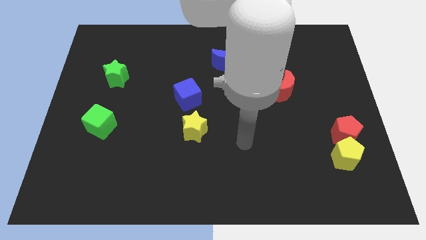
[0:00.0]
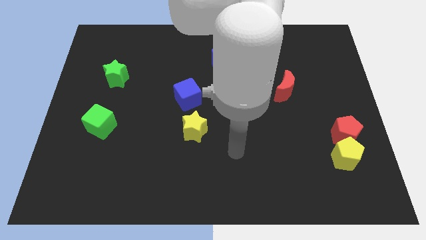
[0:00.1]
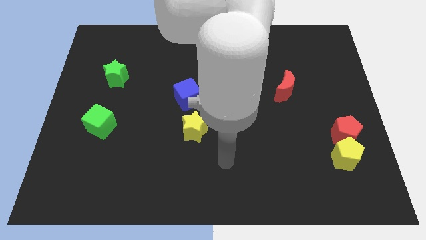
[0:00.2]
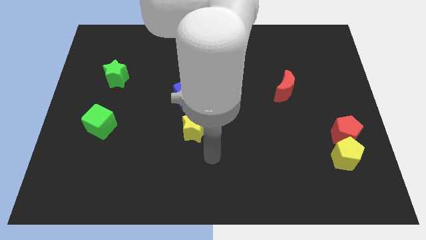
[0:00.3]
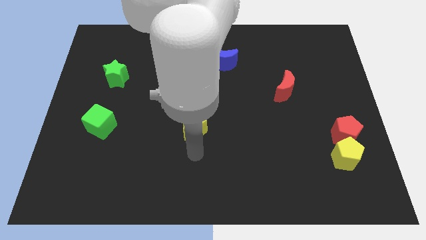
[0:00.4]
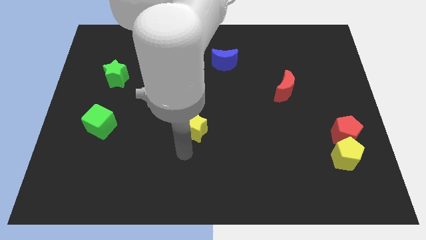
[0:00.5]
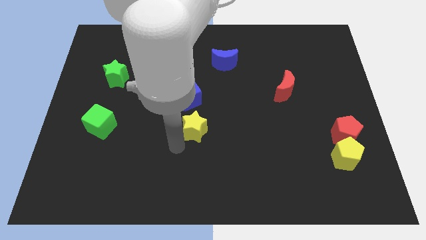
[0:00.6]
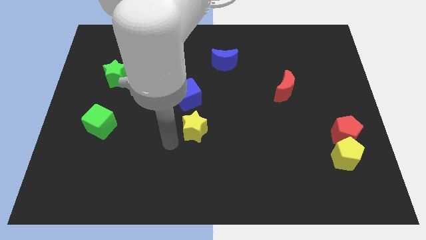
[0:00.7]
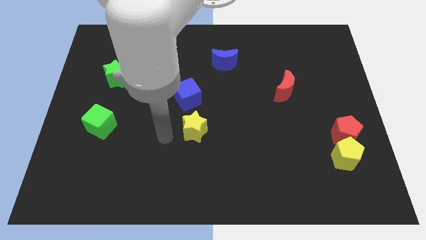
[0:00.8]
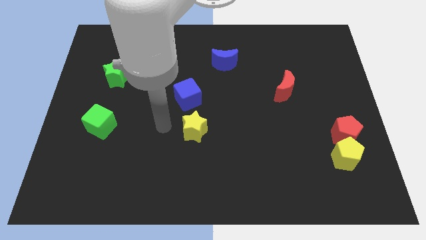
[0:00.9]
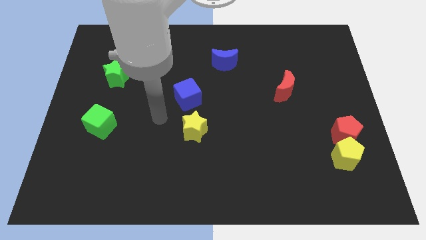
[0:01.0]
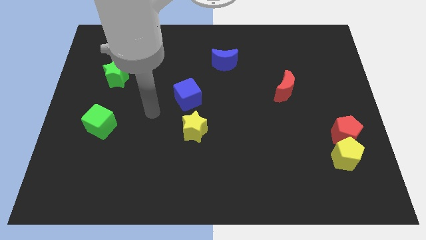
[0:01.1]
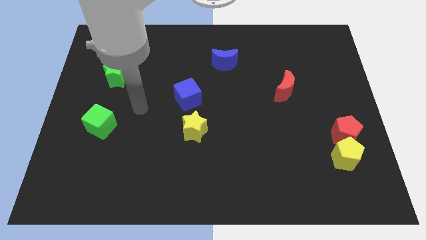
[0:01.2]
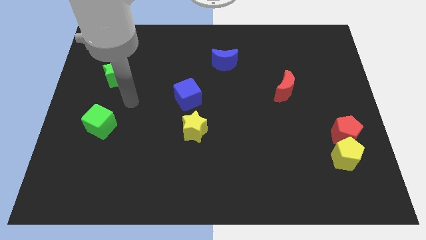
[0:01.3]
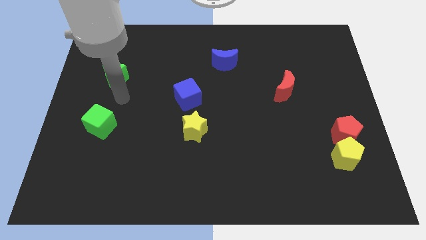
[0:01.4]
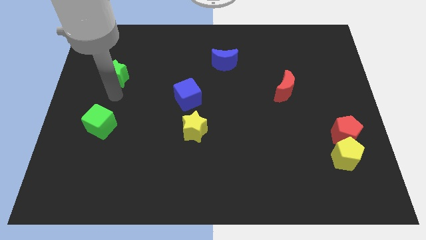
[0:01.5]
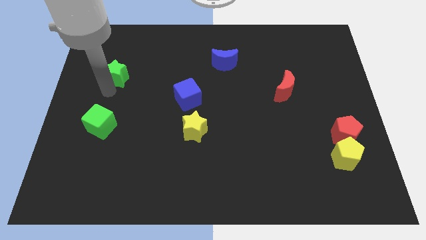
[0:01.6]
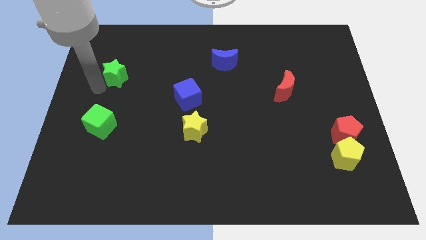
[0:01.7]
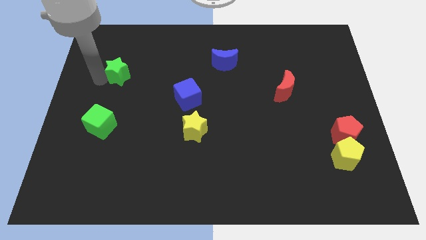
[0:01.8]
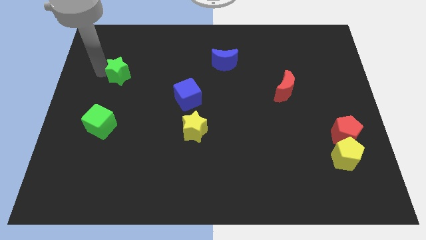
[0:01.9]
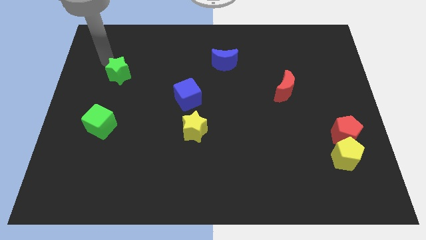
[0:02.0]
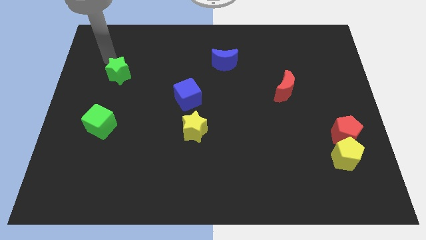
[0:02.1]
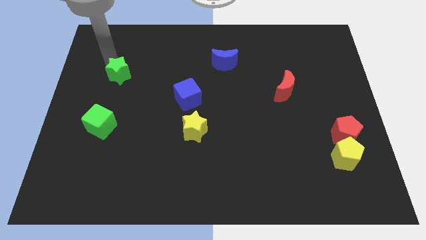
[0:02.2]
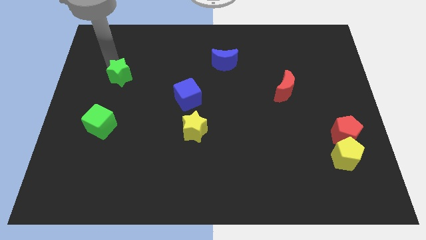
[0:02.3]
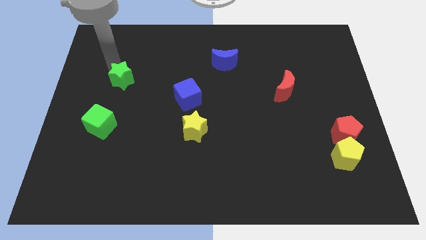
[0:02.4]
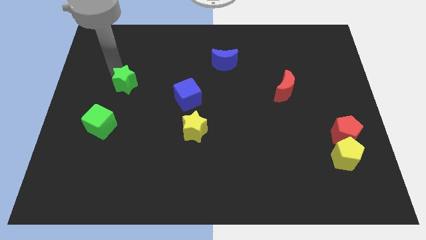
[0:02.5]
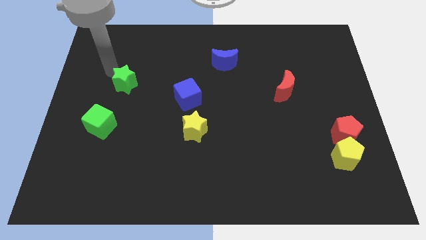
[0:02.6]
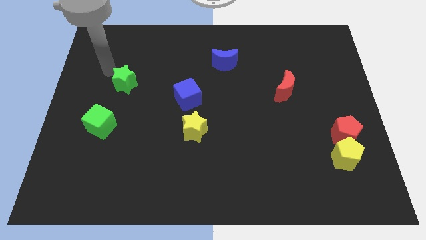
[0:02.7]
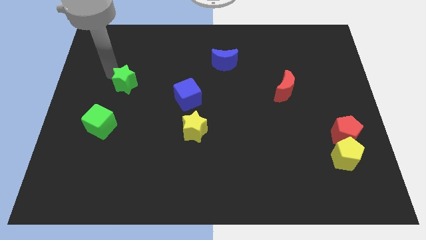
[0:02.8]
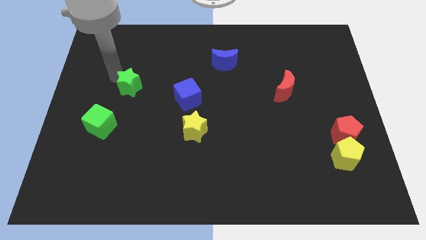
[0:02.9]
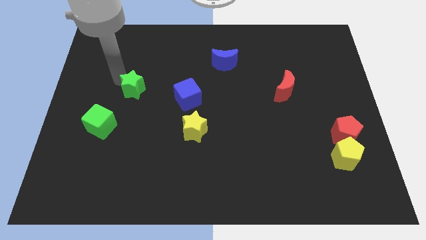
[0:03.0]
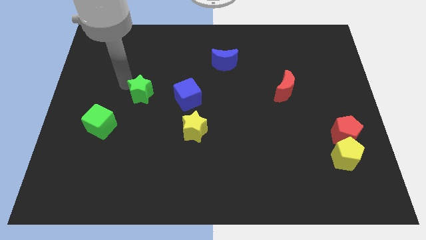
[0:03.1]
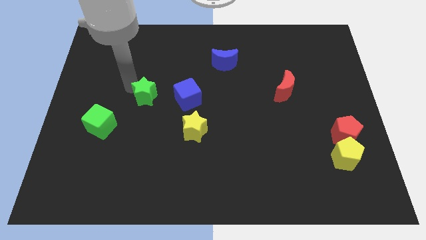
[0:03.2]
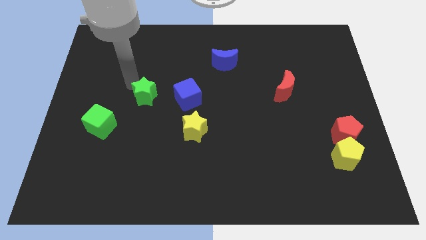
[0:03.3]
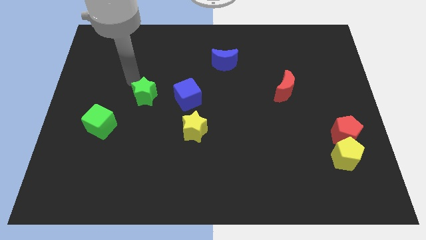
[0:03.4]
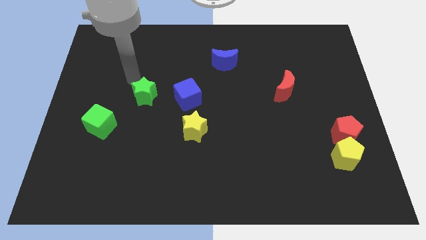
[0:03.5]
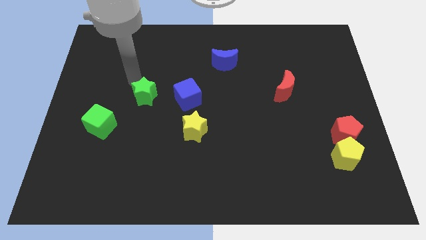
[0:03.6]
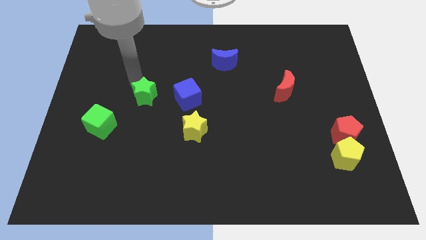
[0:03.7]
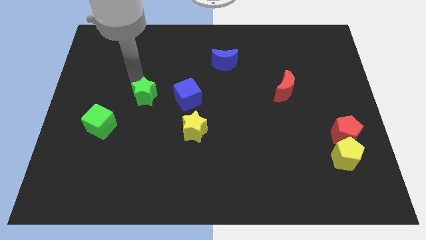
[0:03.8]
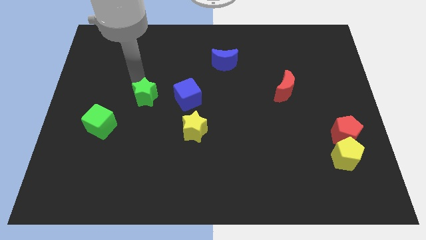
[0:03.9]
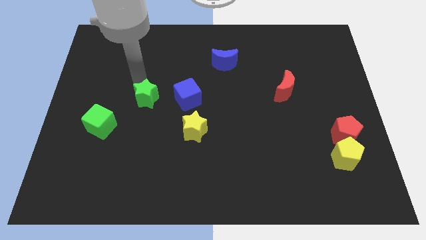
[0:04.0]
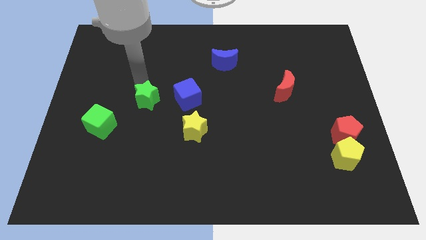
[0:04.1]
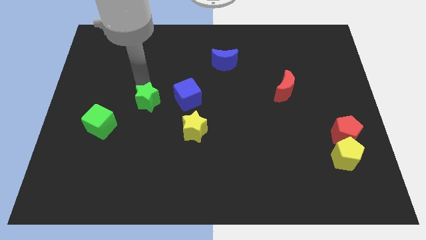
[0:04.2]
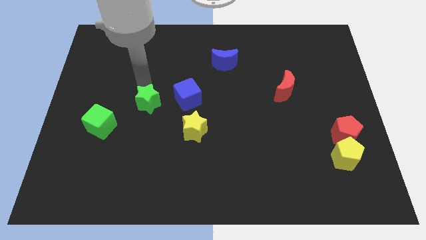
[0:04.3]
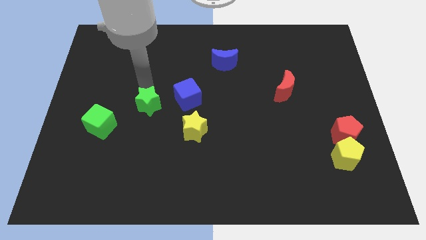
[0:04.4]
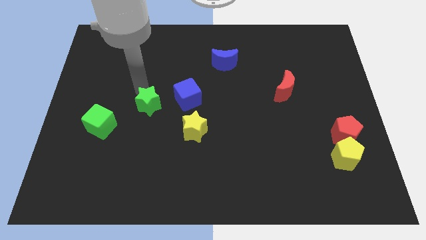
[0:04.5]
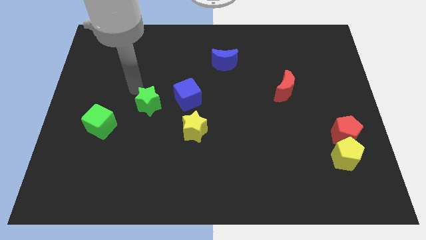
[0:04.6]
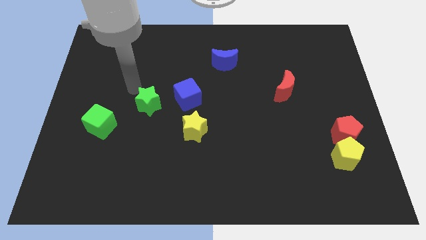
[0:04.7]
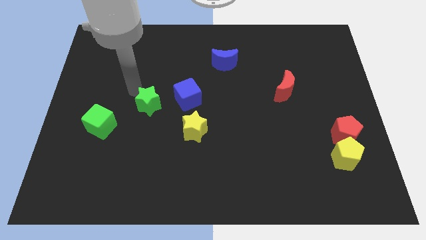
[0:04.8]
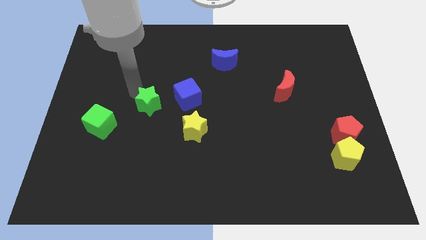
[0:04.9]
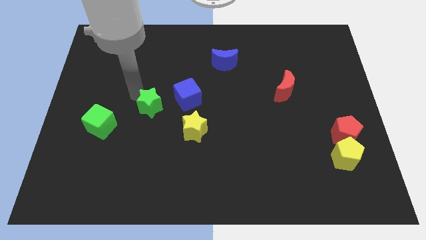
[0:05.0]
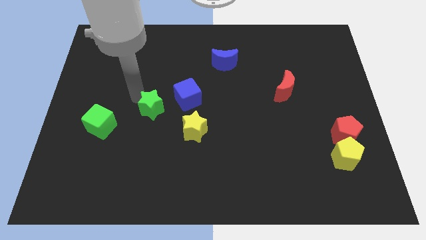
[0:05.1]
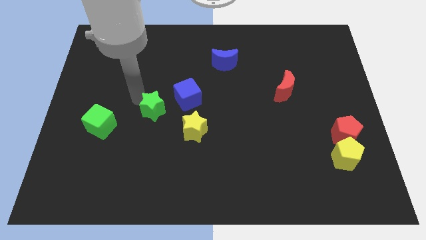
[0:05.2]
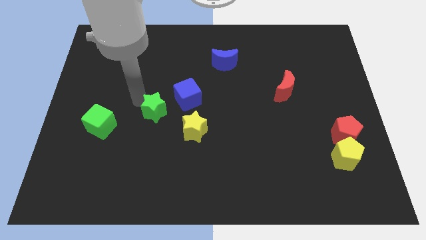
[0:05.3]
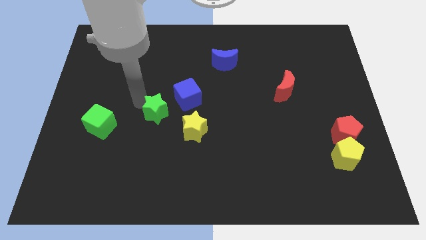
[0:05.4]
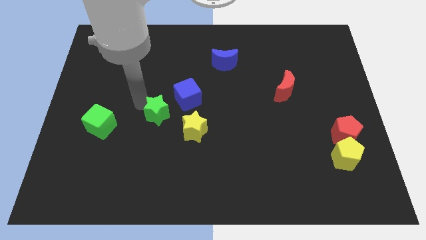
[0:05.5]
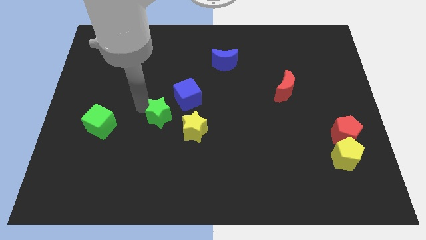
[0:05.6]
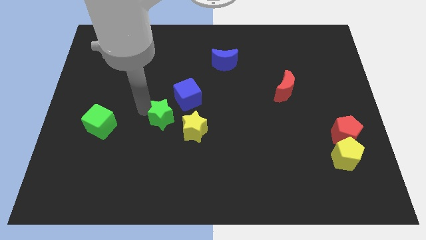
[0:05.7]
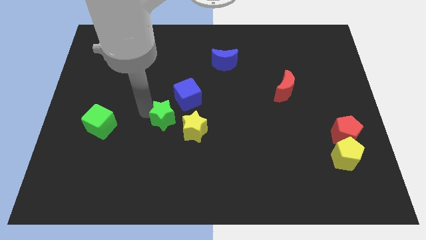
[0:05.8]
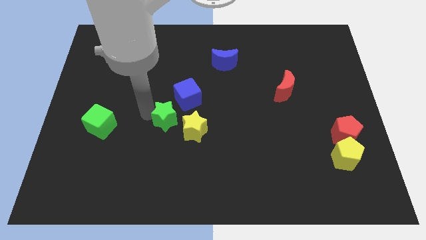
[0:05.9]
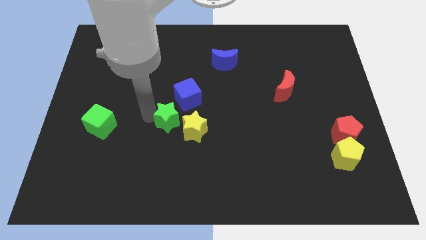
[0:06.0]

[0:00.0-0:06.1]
move the green star below the blue cube

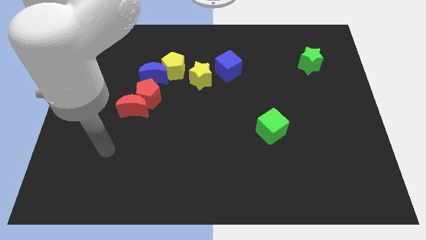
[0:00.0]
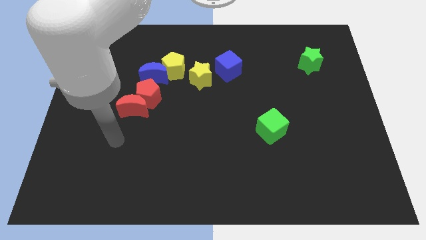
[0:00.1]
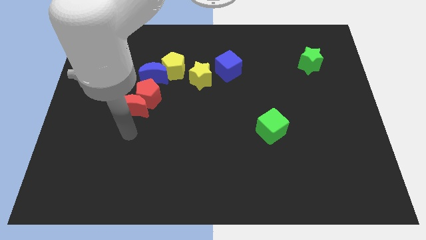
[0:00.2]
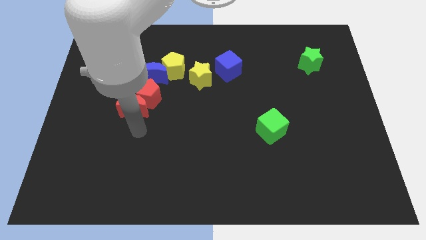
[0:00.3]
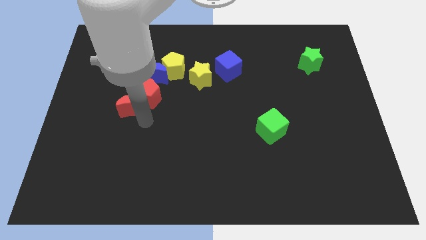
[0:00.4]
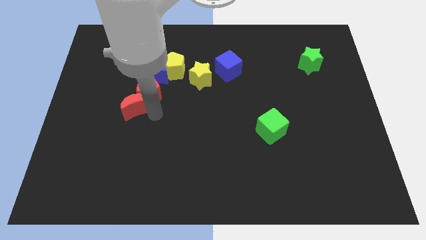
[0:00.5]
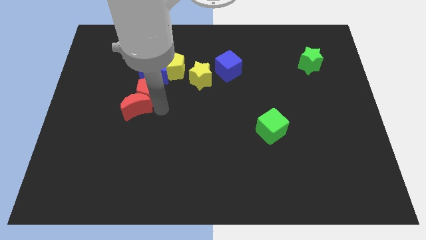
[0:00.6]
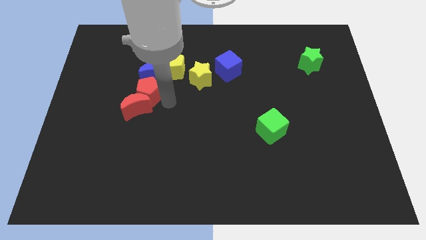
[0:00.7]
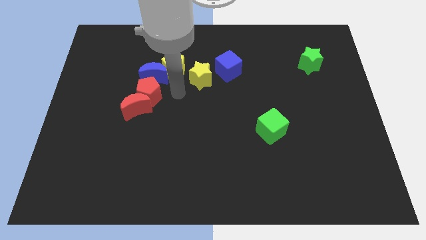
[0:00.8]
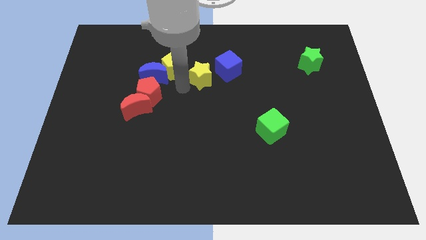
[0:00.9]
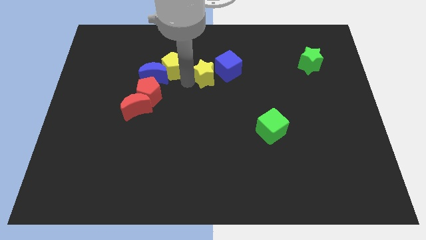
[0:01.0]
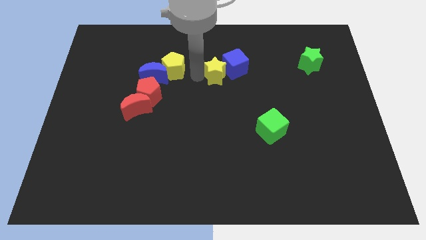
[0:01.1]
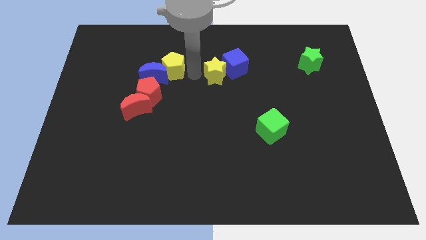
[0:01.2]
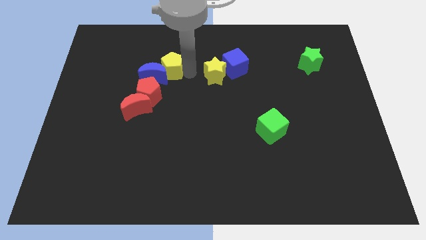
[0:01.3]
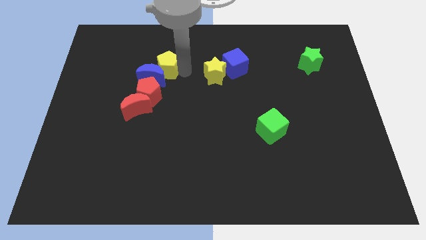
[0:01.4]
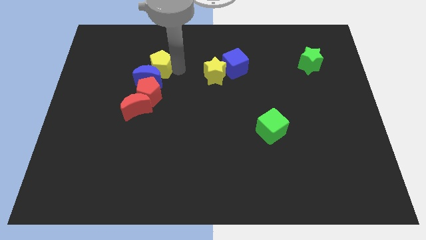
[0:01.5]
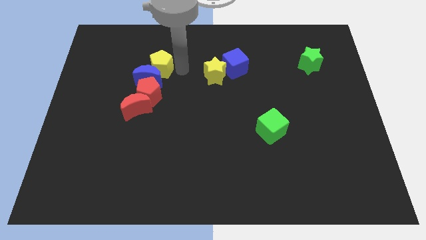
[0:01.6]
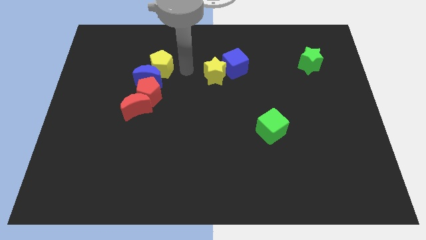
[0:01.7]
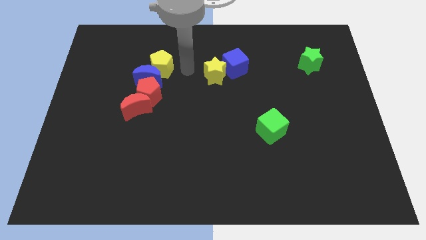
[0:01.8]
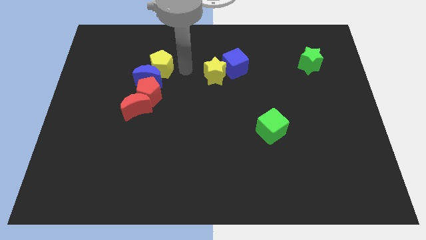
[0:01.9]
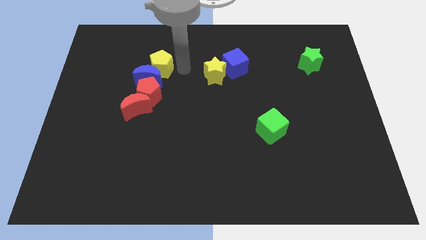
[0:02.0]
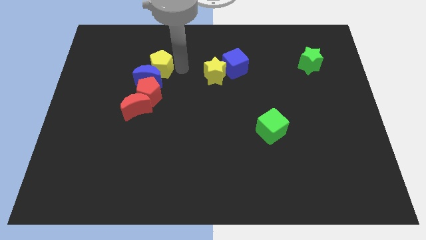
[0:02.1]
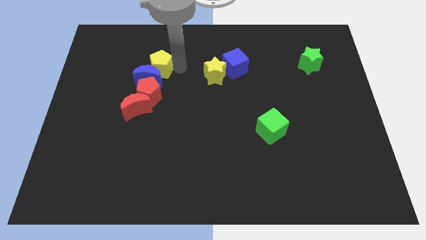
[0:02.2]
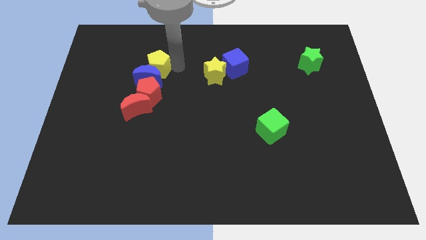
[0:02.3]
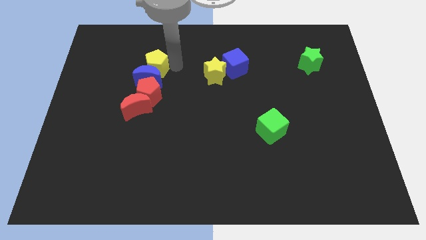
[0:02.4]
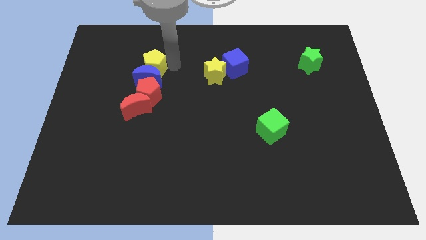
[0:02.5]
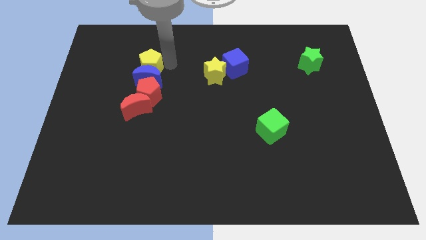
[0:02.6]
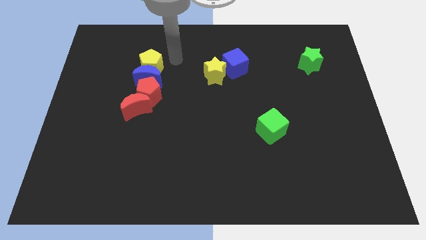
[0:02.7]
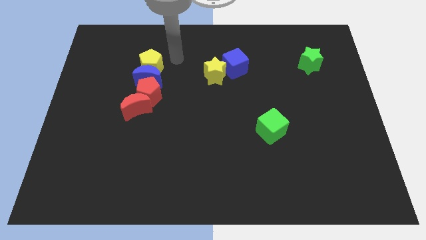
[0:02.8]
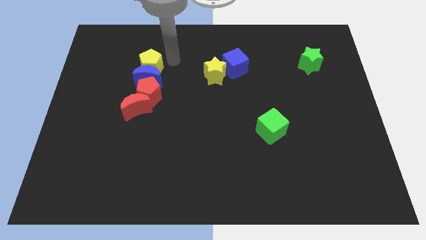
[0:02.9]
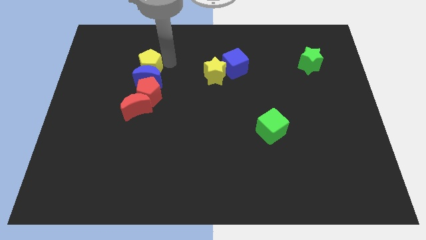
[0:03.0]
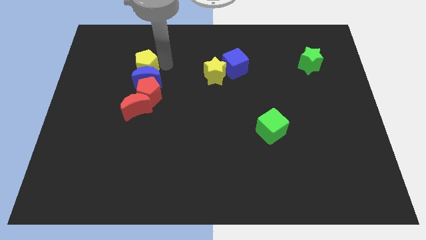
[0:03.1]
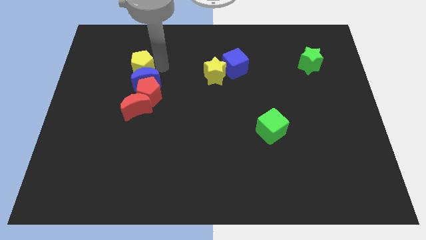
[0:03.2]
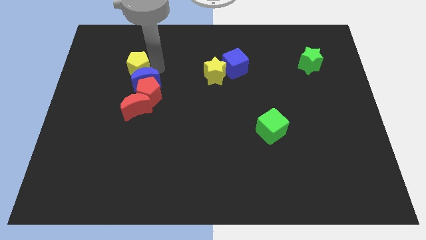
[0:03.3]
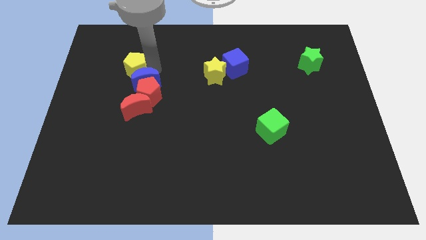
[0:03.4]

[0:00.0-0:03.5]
push the yellow pentagon just left of the blue moon
